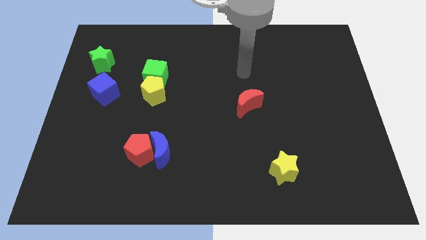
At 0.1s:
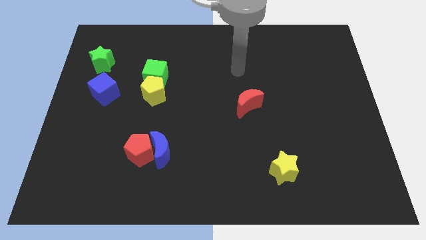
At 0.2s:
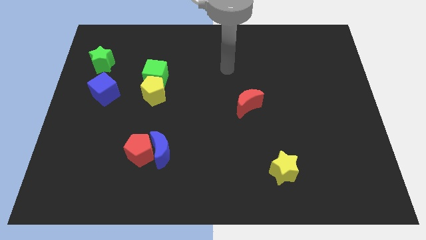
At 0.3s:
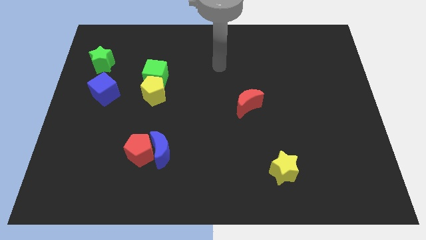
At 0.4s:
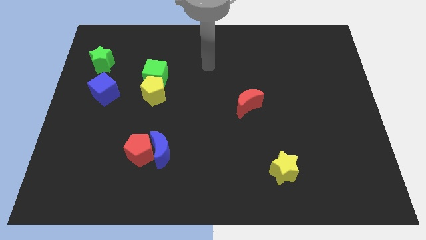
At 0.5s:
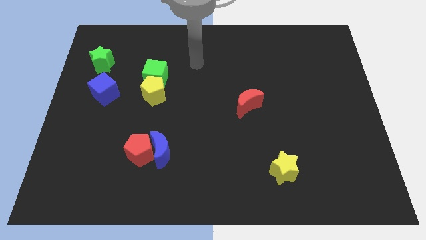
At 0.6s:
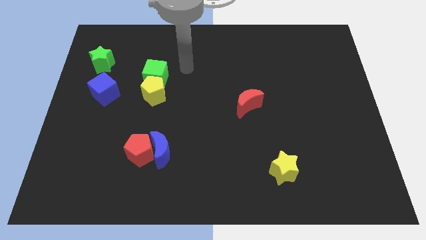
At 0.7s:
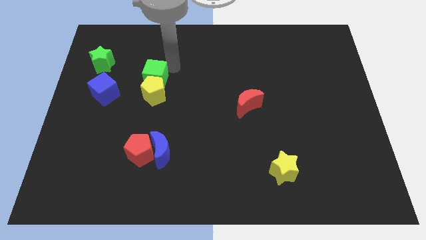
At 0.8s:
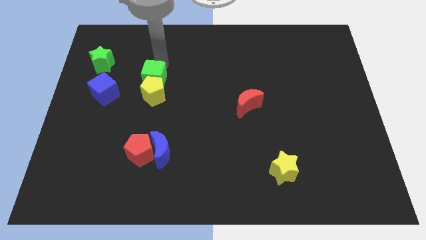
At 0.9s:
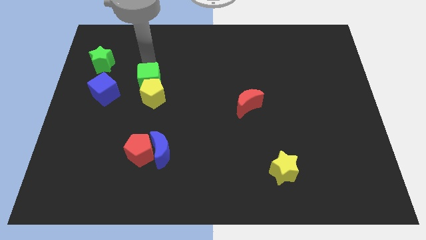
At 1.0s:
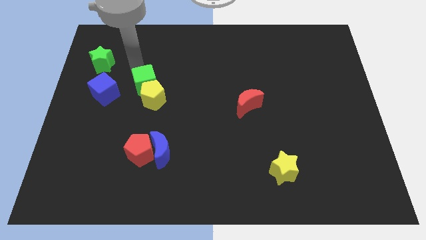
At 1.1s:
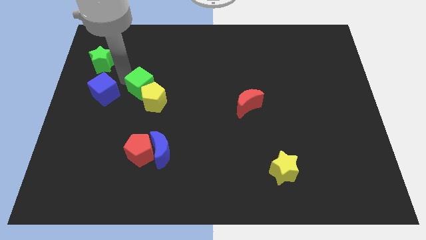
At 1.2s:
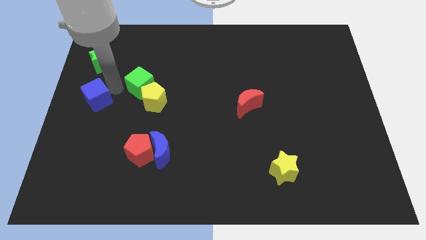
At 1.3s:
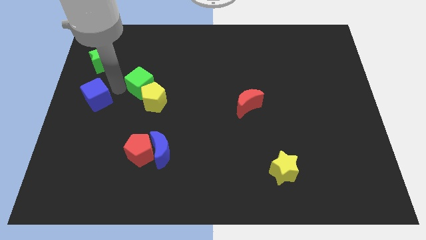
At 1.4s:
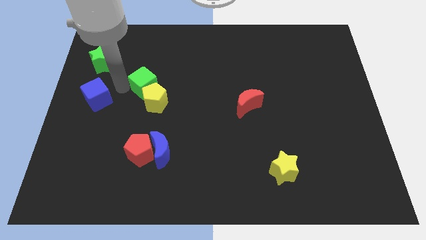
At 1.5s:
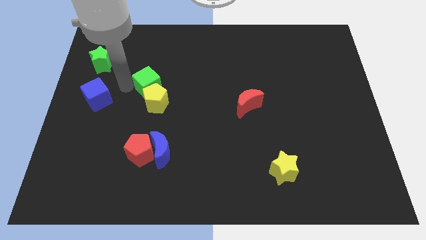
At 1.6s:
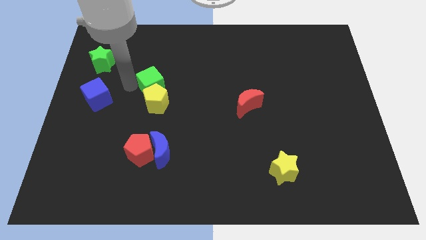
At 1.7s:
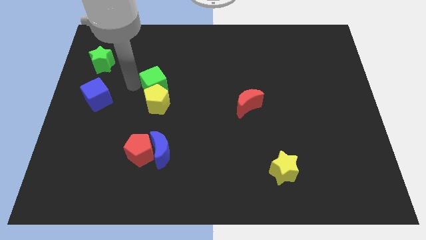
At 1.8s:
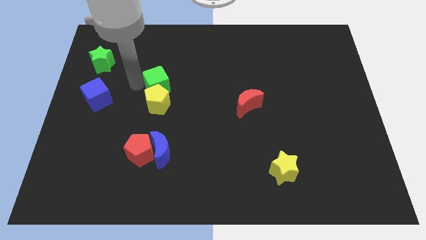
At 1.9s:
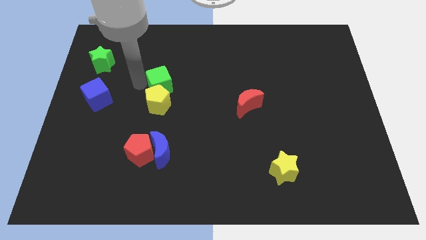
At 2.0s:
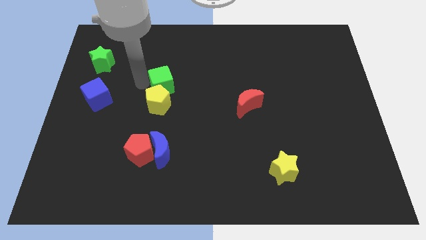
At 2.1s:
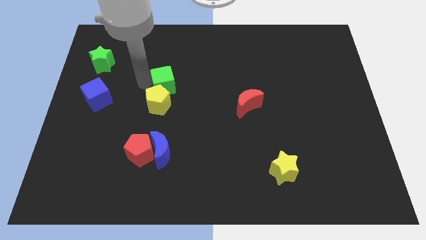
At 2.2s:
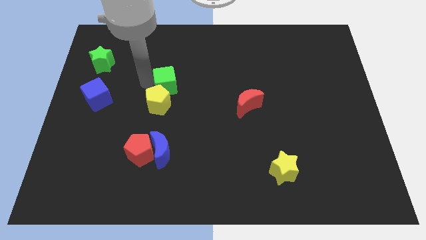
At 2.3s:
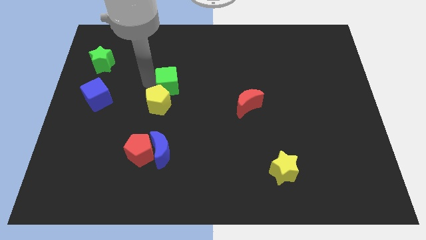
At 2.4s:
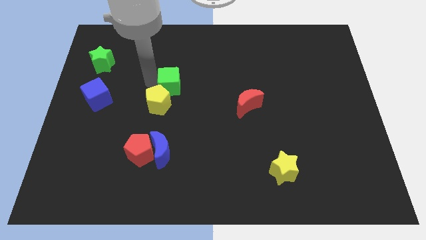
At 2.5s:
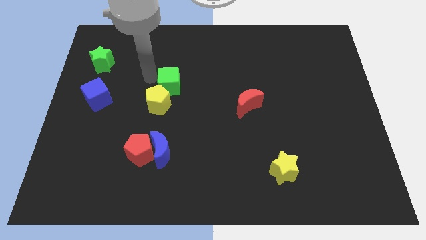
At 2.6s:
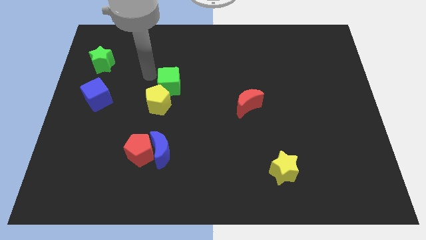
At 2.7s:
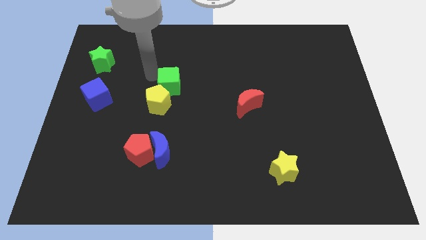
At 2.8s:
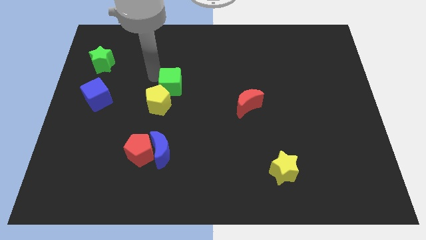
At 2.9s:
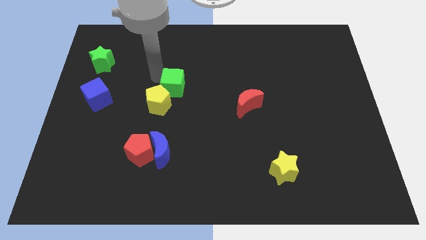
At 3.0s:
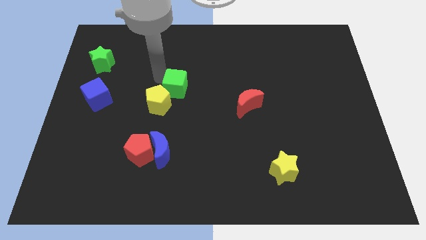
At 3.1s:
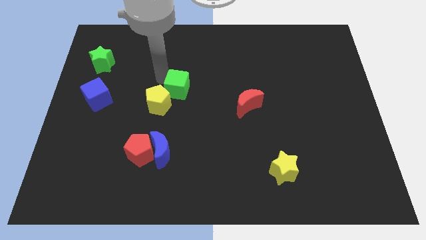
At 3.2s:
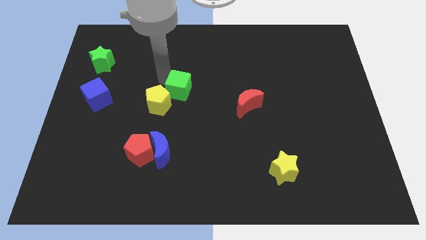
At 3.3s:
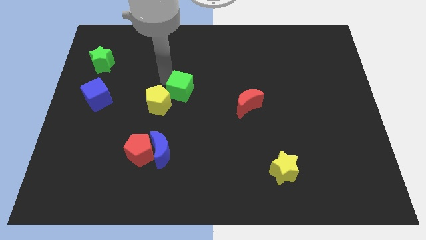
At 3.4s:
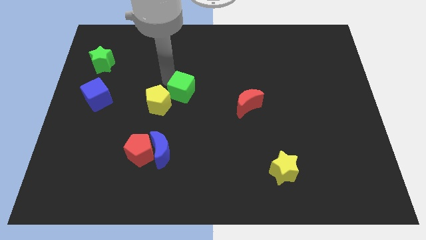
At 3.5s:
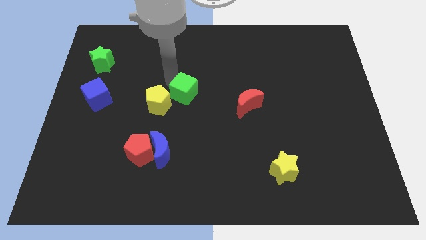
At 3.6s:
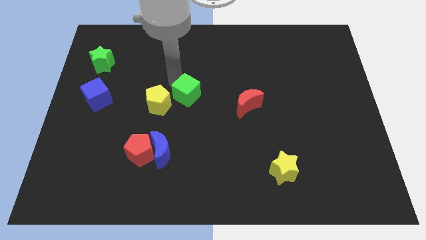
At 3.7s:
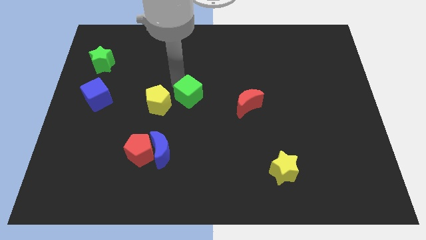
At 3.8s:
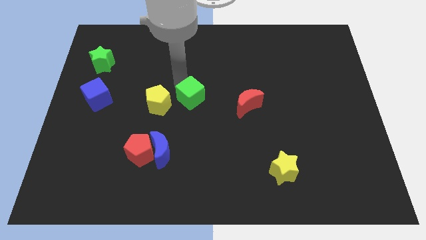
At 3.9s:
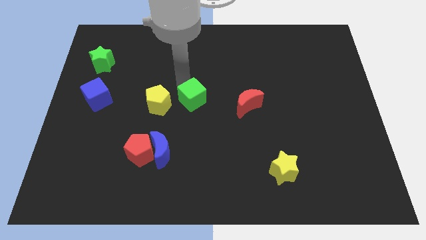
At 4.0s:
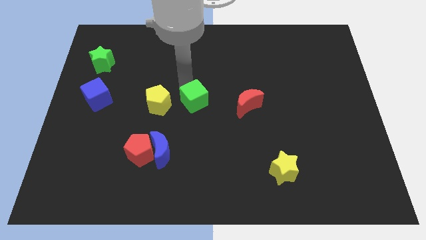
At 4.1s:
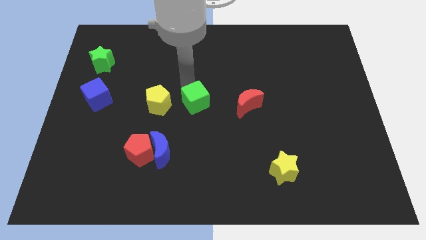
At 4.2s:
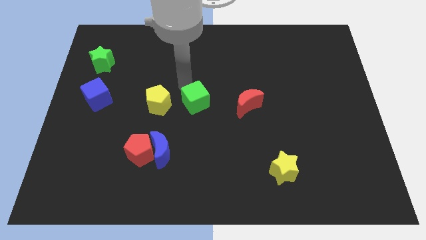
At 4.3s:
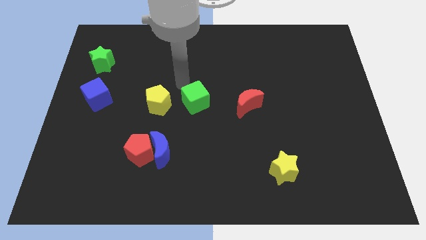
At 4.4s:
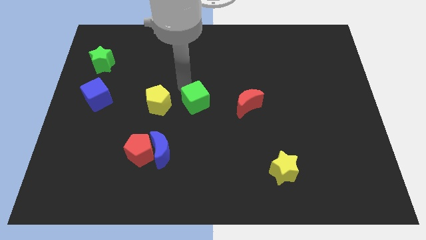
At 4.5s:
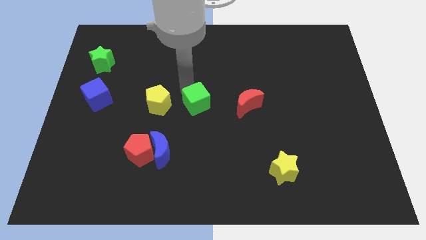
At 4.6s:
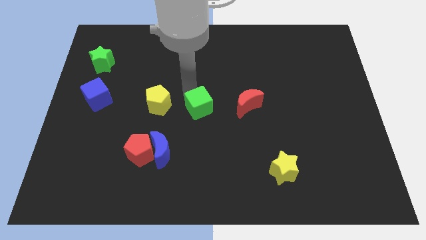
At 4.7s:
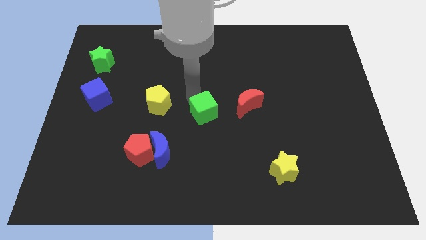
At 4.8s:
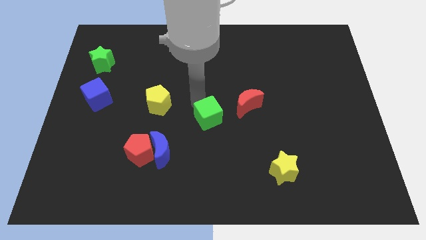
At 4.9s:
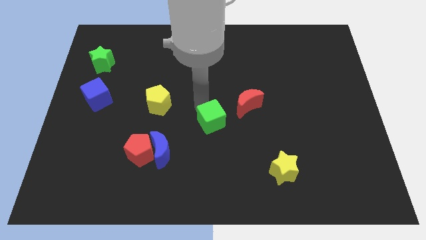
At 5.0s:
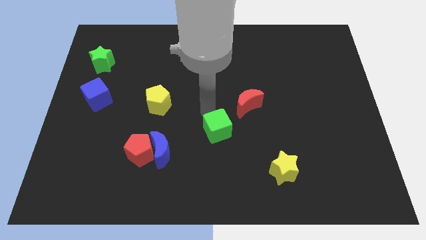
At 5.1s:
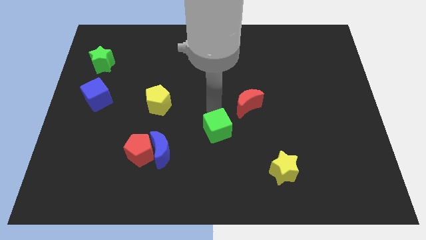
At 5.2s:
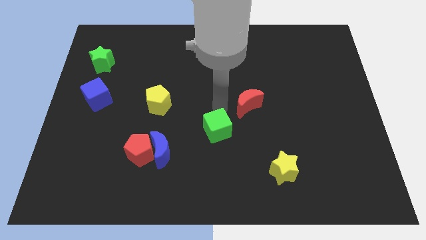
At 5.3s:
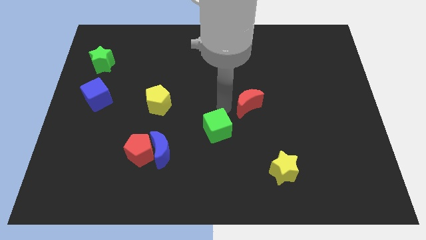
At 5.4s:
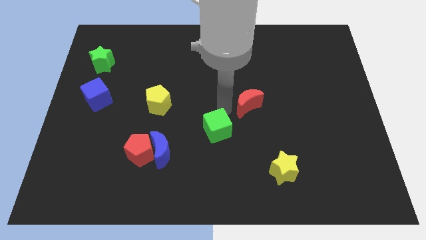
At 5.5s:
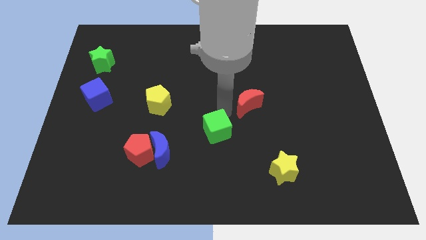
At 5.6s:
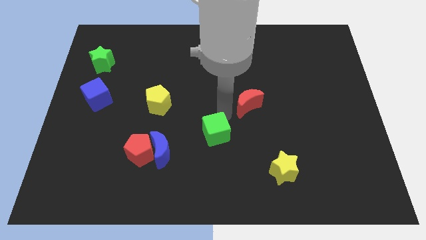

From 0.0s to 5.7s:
push the green cube to the right side of the blue moon

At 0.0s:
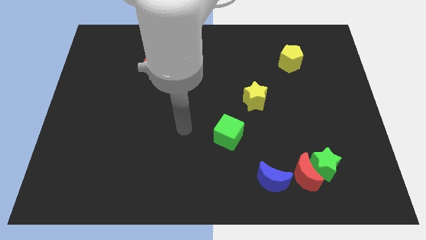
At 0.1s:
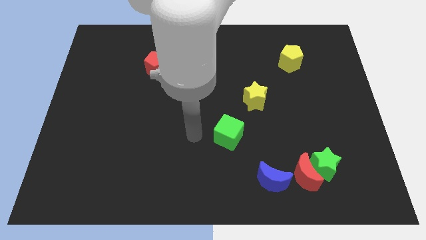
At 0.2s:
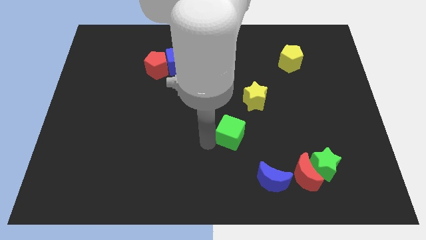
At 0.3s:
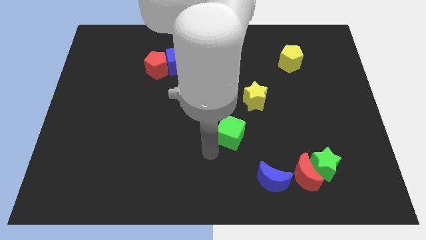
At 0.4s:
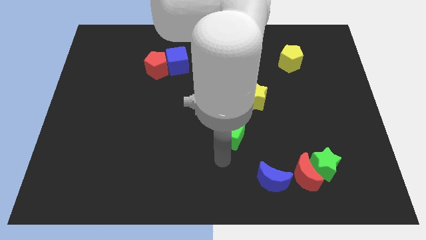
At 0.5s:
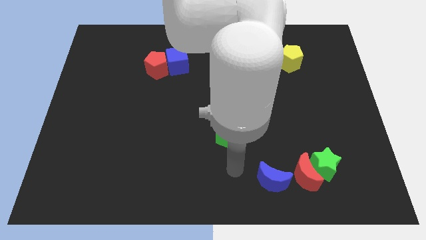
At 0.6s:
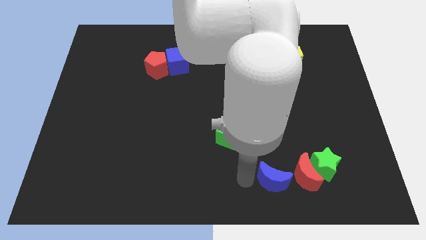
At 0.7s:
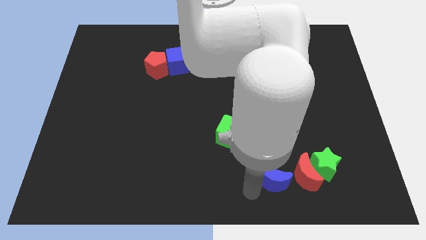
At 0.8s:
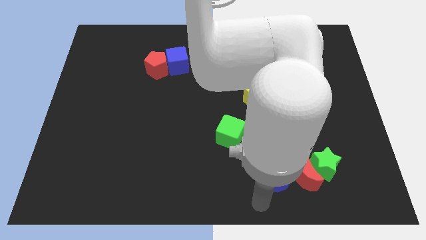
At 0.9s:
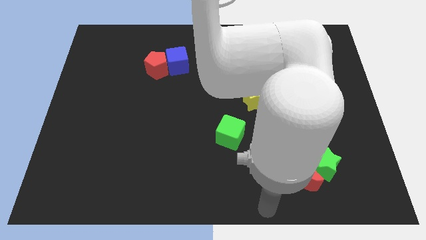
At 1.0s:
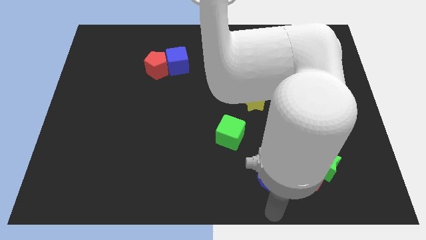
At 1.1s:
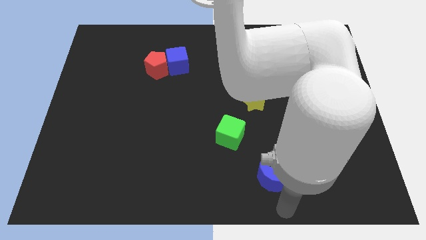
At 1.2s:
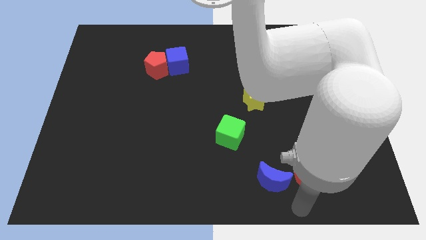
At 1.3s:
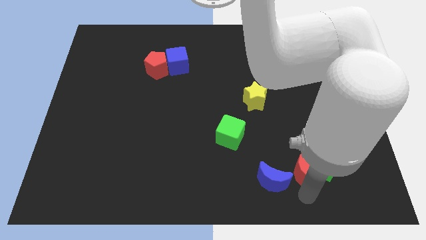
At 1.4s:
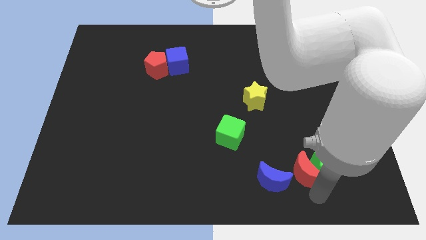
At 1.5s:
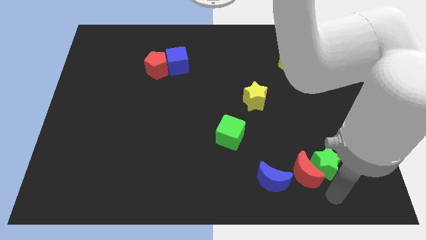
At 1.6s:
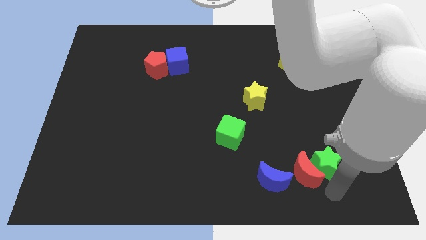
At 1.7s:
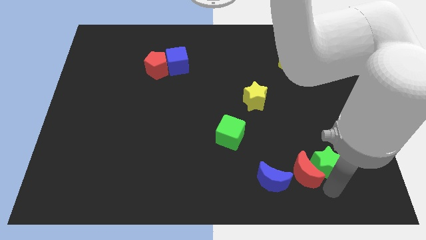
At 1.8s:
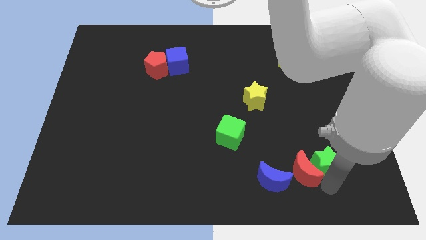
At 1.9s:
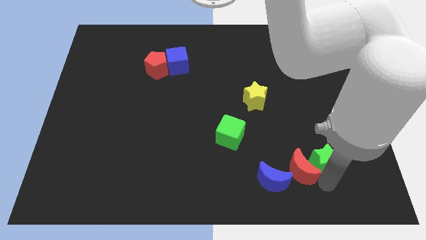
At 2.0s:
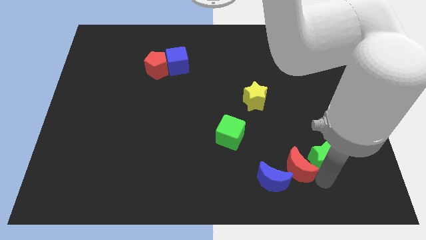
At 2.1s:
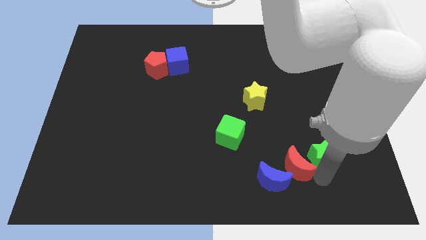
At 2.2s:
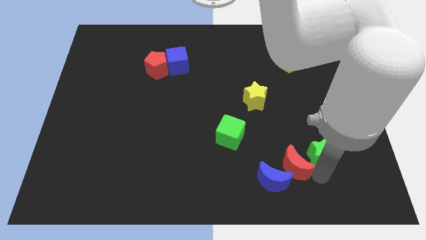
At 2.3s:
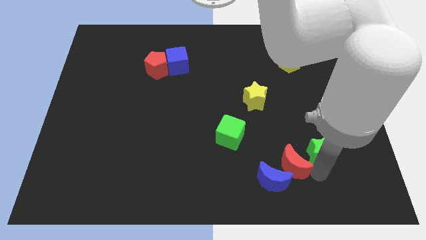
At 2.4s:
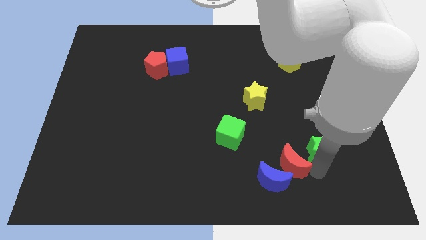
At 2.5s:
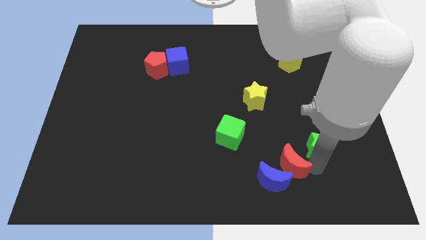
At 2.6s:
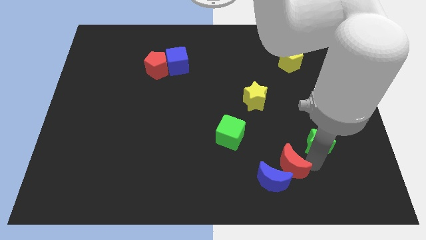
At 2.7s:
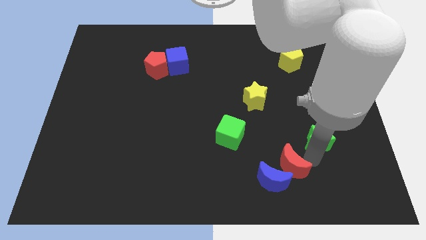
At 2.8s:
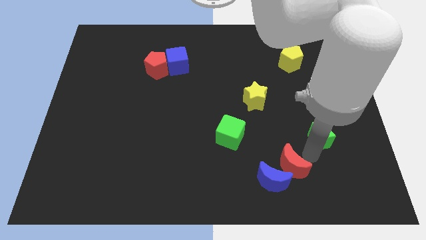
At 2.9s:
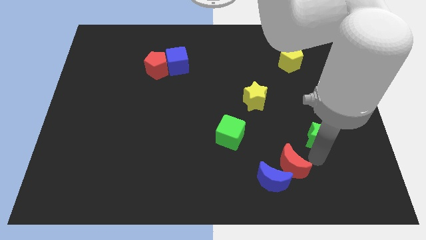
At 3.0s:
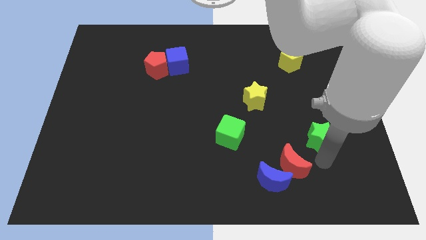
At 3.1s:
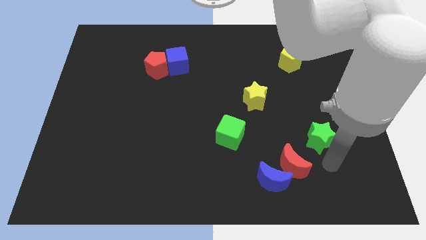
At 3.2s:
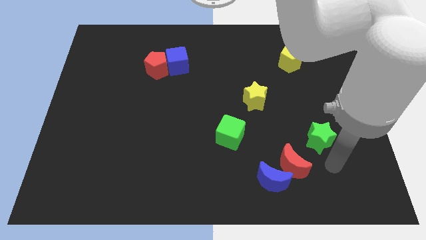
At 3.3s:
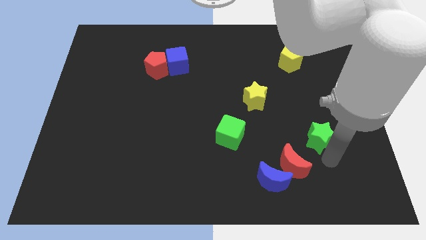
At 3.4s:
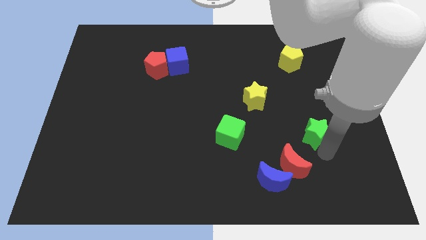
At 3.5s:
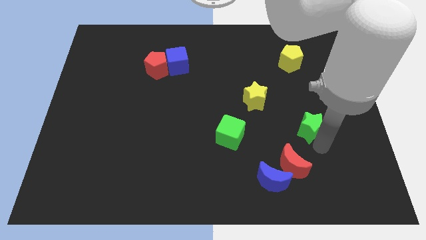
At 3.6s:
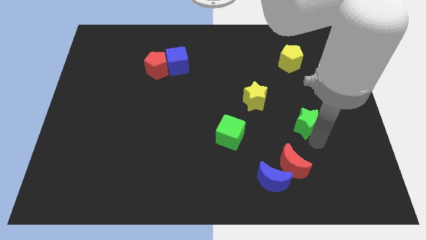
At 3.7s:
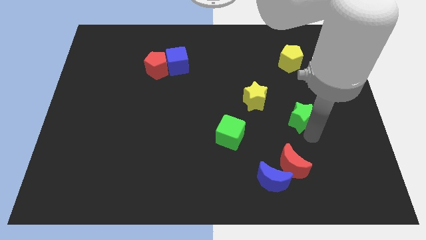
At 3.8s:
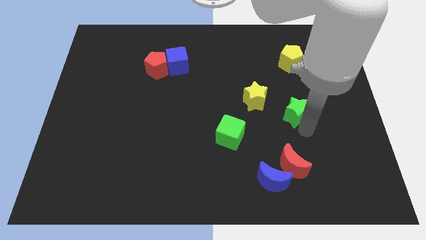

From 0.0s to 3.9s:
slide the green star to the right side of the yellow star
